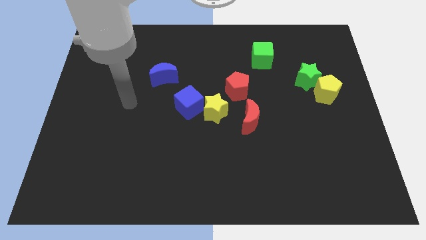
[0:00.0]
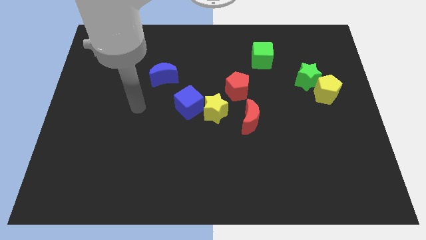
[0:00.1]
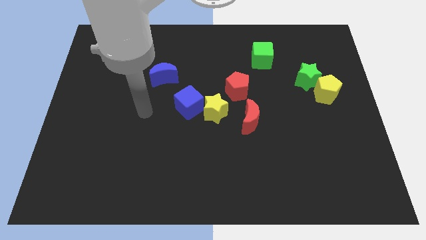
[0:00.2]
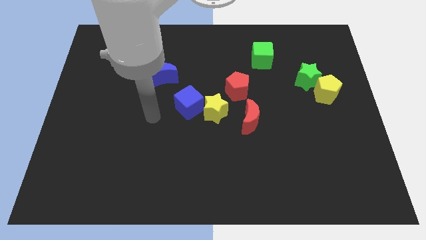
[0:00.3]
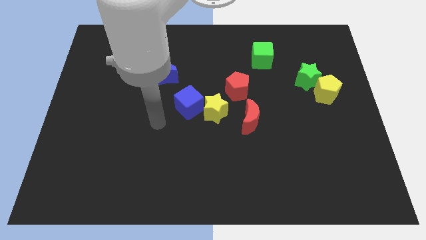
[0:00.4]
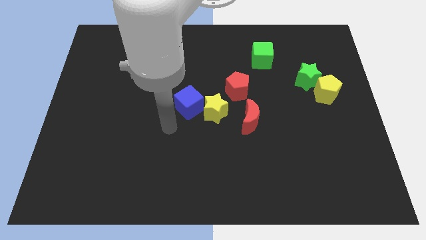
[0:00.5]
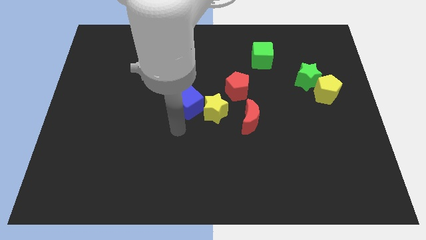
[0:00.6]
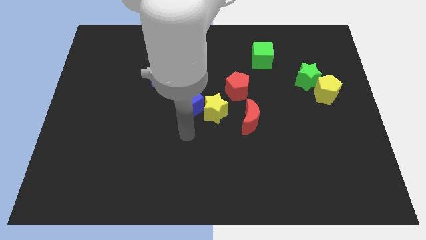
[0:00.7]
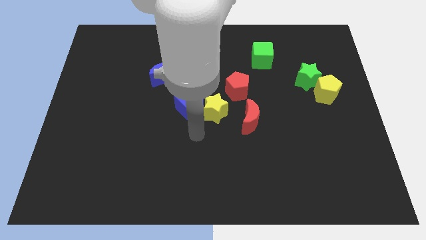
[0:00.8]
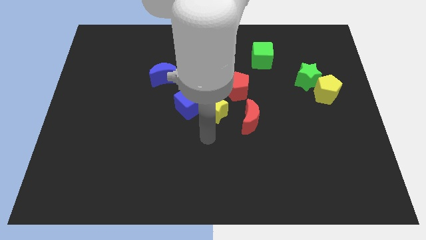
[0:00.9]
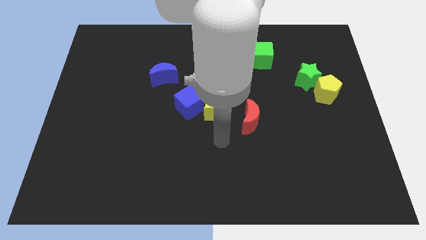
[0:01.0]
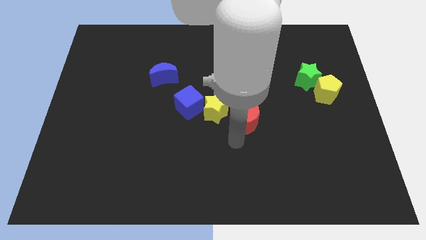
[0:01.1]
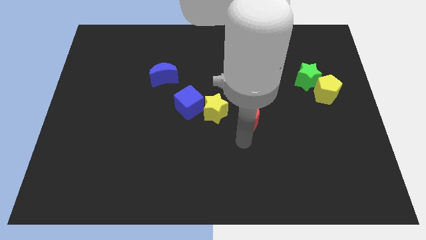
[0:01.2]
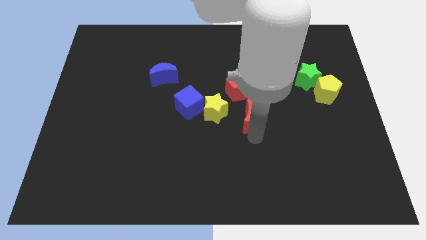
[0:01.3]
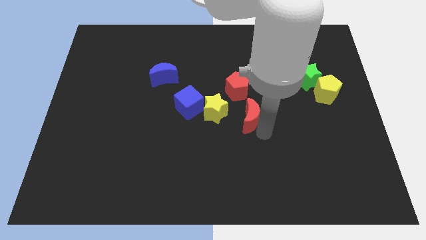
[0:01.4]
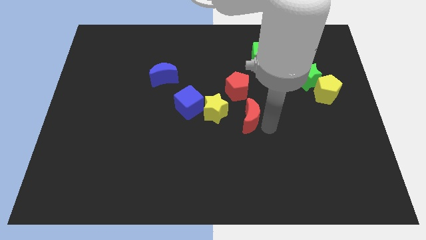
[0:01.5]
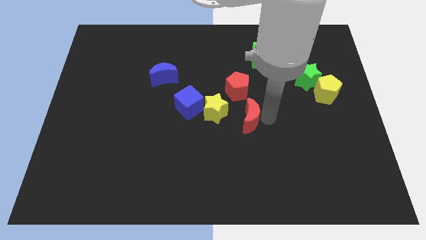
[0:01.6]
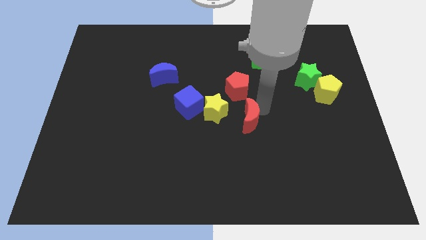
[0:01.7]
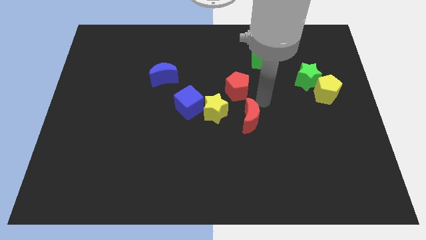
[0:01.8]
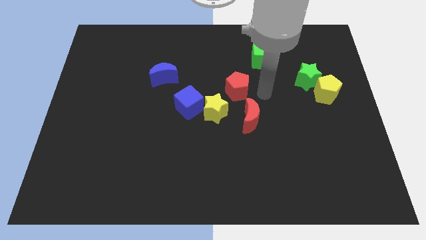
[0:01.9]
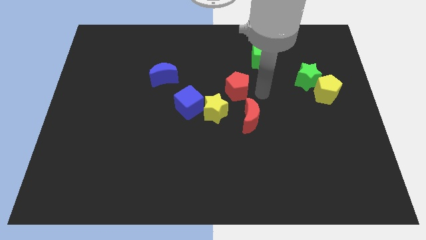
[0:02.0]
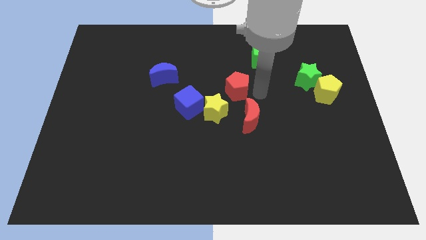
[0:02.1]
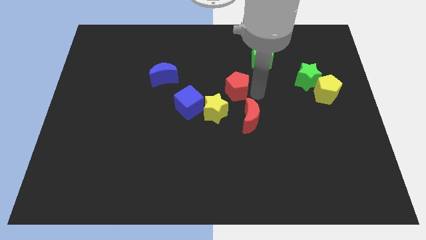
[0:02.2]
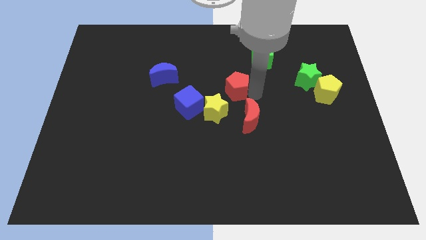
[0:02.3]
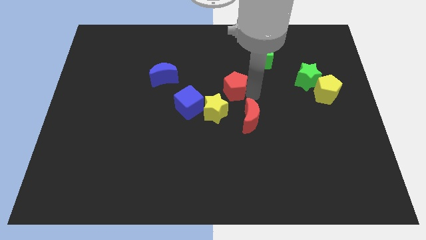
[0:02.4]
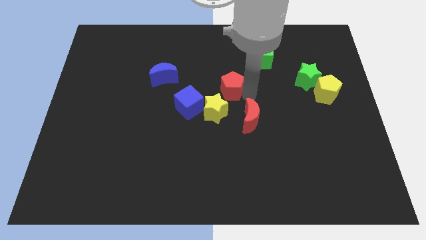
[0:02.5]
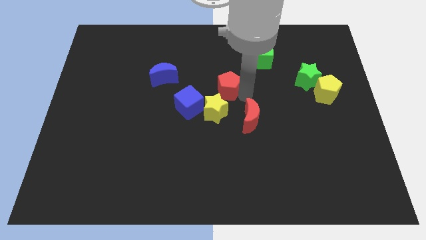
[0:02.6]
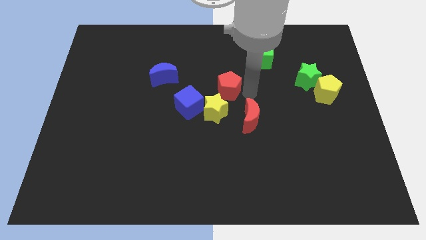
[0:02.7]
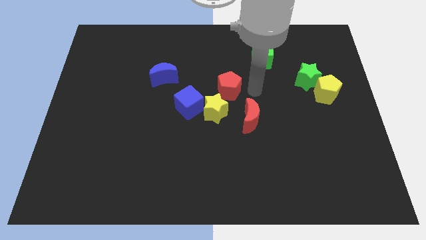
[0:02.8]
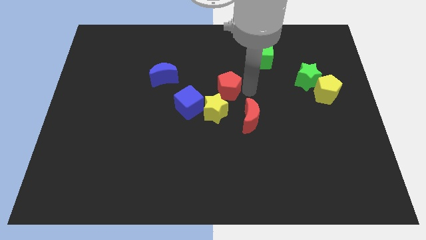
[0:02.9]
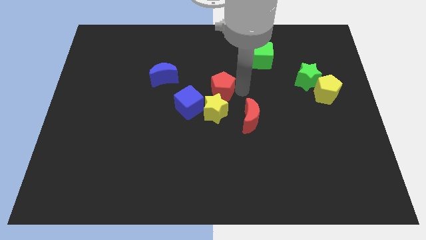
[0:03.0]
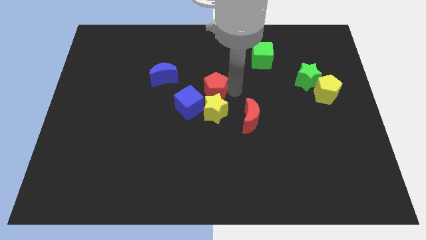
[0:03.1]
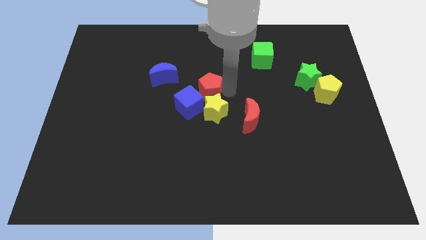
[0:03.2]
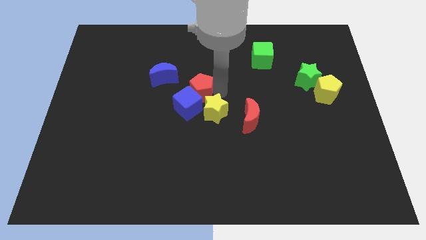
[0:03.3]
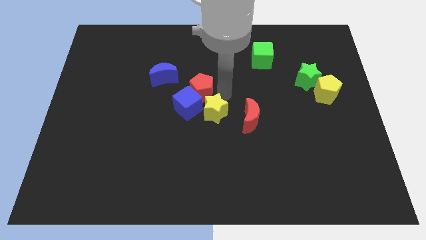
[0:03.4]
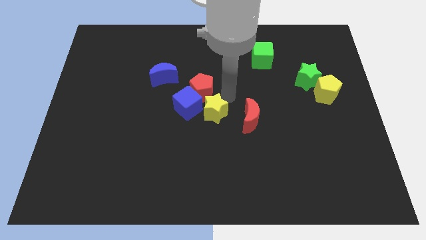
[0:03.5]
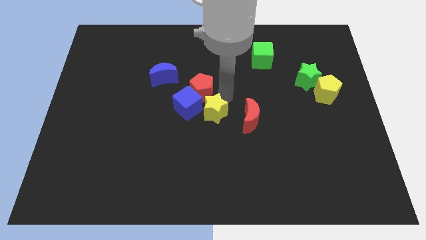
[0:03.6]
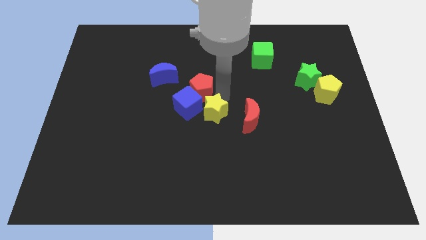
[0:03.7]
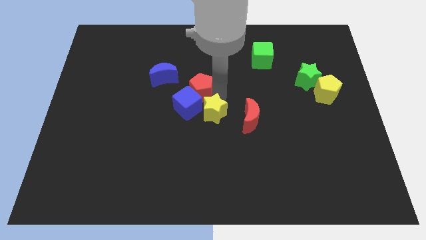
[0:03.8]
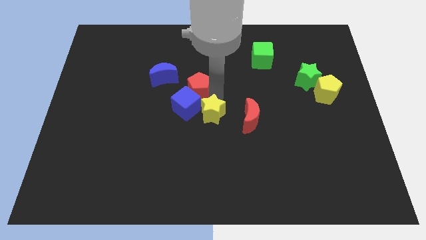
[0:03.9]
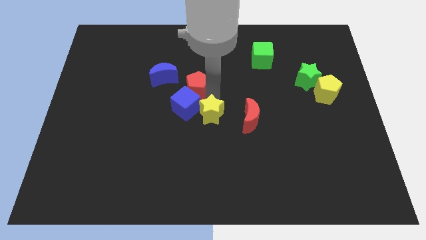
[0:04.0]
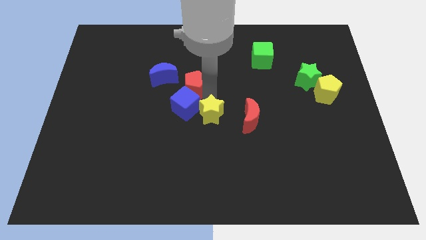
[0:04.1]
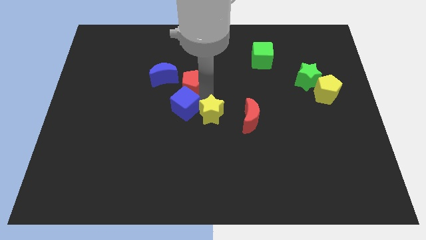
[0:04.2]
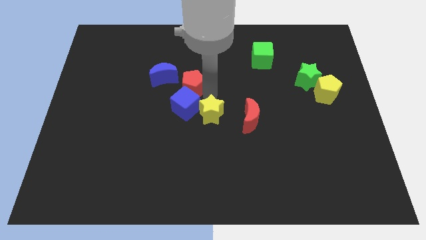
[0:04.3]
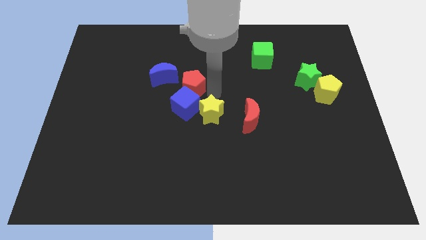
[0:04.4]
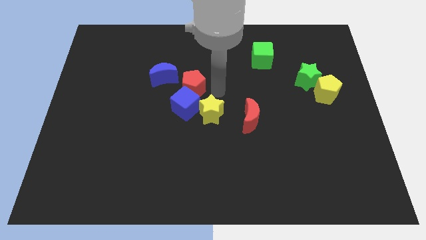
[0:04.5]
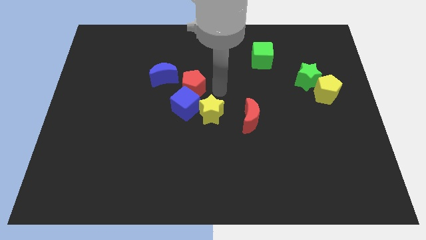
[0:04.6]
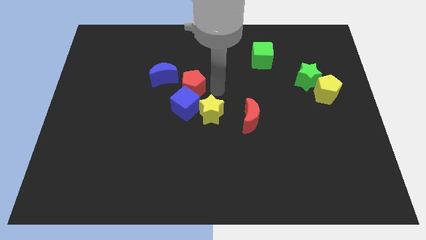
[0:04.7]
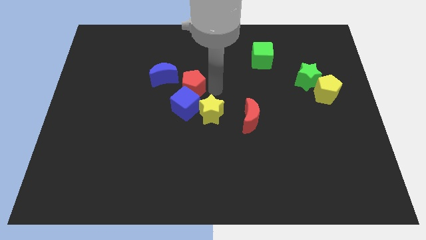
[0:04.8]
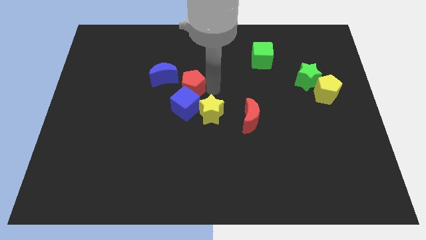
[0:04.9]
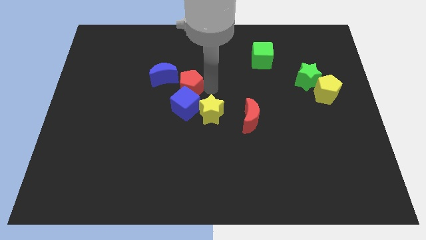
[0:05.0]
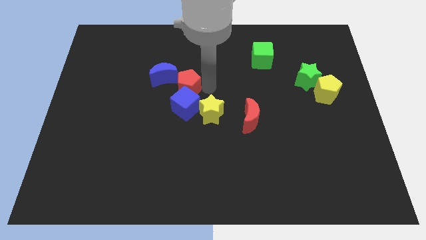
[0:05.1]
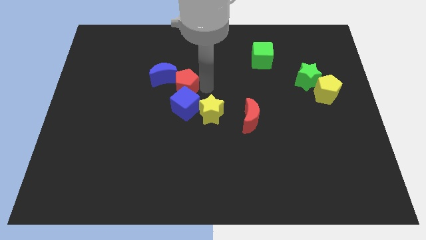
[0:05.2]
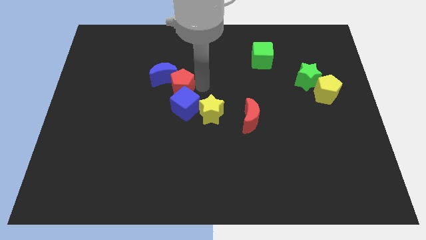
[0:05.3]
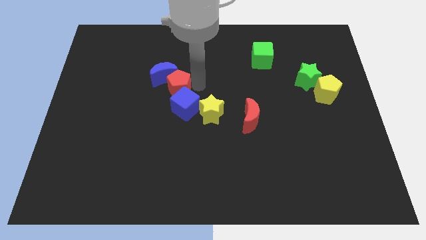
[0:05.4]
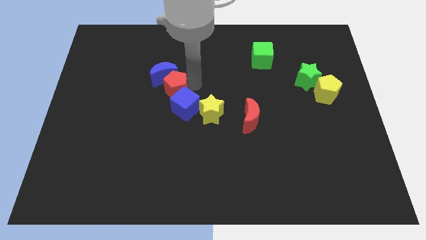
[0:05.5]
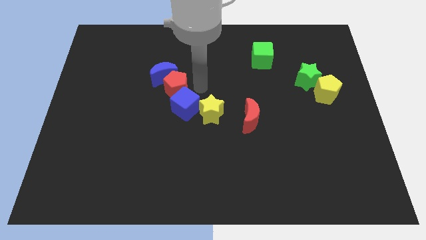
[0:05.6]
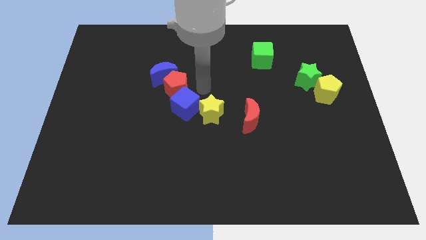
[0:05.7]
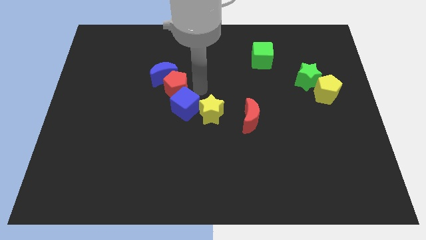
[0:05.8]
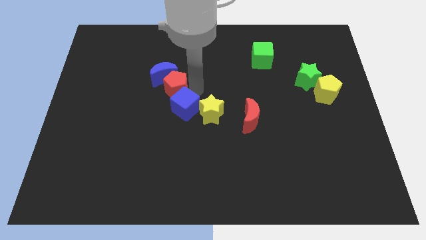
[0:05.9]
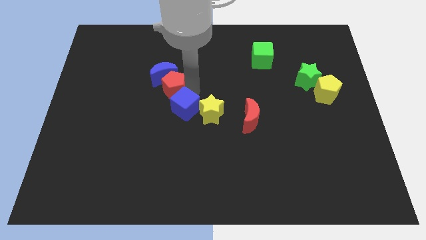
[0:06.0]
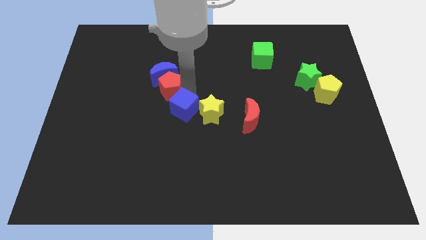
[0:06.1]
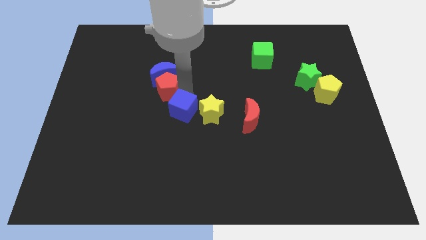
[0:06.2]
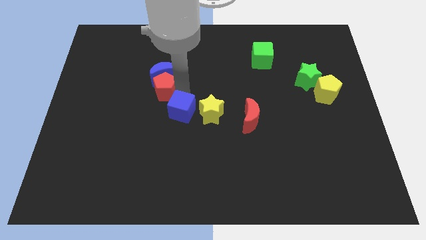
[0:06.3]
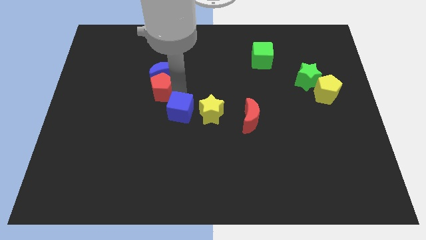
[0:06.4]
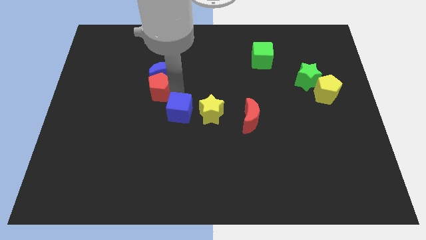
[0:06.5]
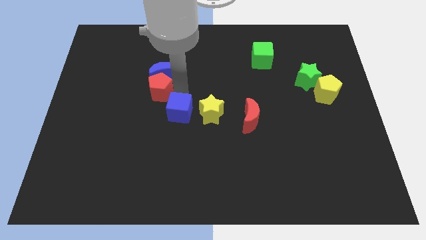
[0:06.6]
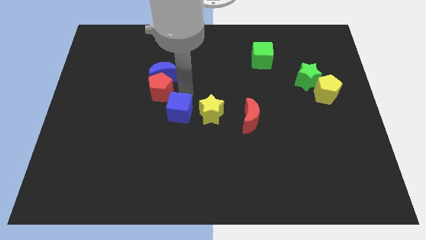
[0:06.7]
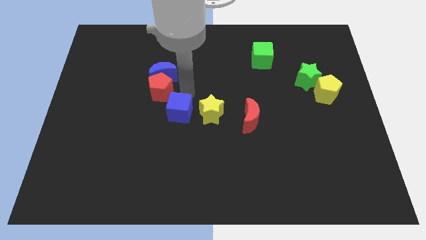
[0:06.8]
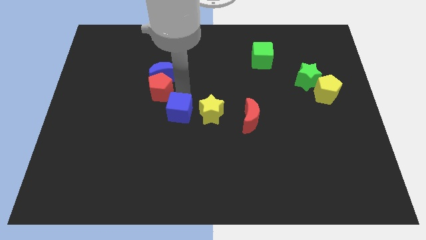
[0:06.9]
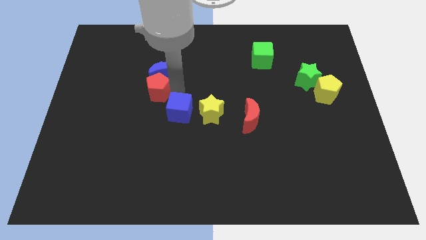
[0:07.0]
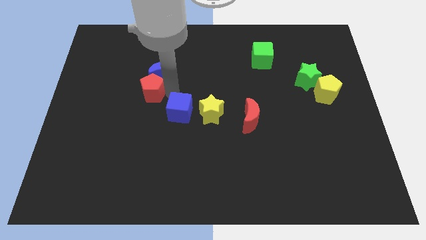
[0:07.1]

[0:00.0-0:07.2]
push the red pentagon left

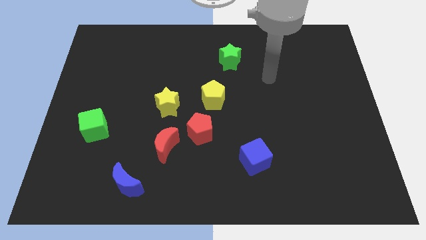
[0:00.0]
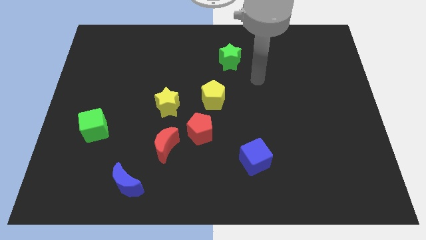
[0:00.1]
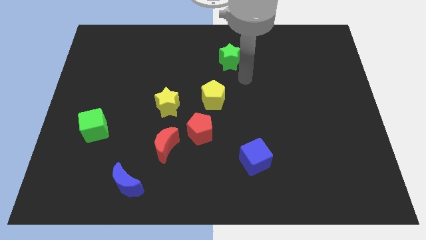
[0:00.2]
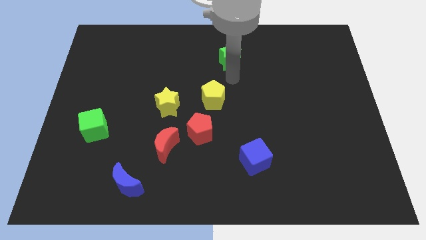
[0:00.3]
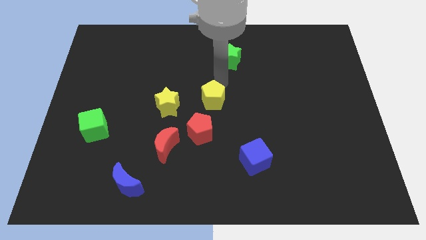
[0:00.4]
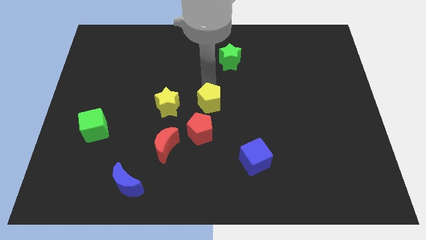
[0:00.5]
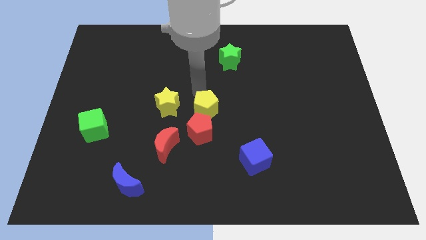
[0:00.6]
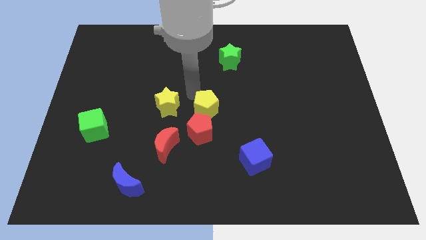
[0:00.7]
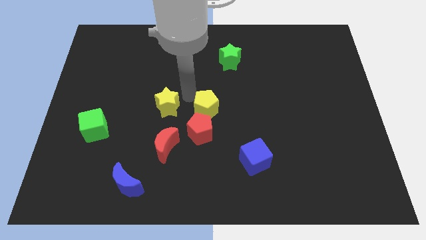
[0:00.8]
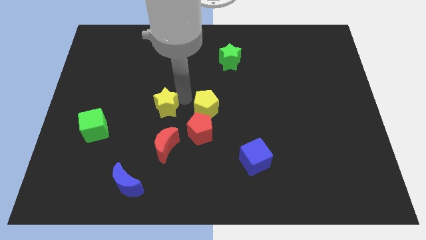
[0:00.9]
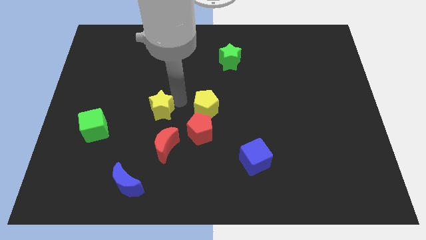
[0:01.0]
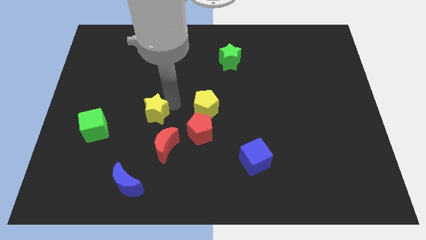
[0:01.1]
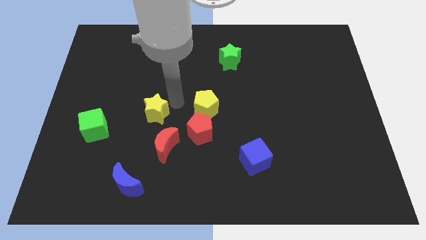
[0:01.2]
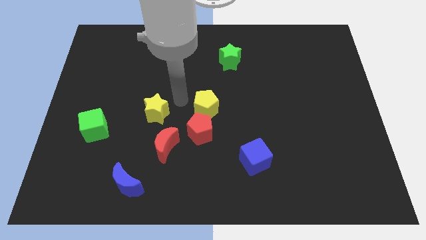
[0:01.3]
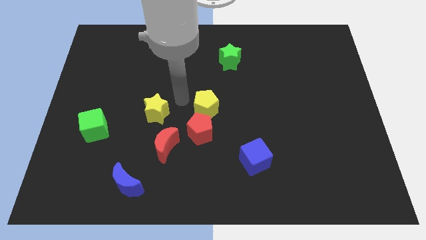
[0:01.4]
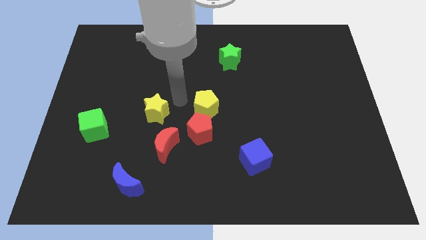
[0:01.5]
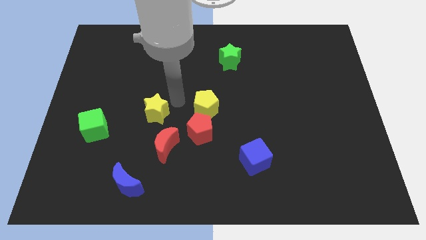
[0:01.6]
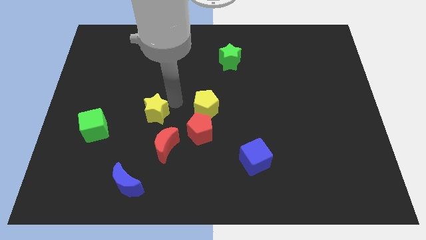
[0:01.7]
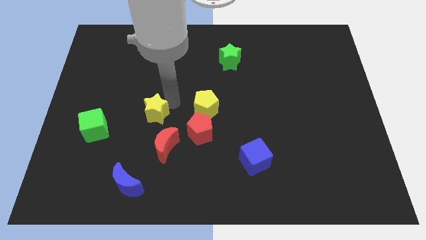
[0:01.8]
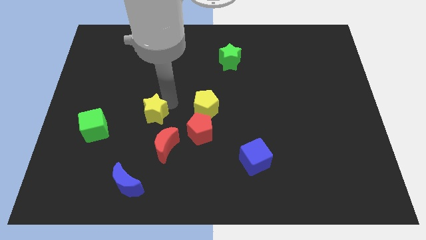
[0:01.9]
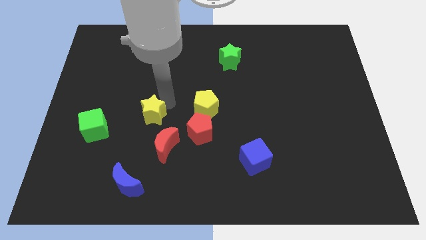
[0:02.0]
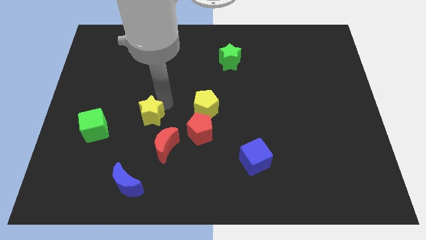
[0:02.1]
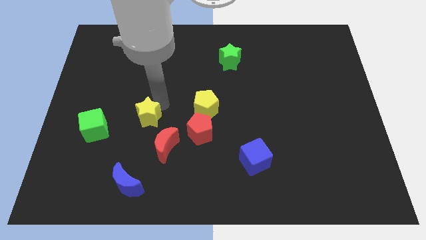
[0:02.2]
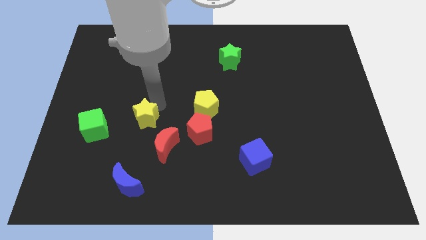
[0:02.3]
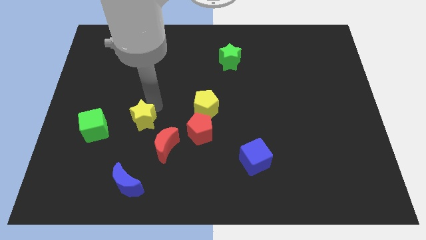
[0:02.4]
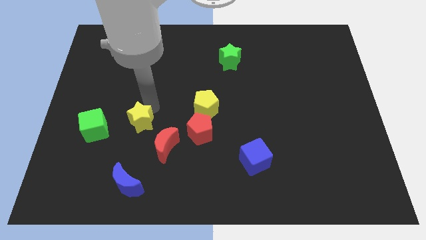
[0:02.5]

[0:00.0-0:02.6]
slide the yellow star slightly diagonally down and to the left
